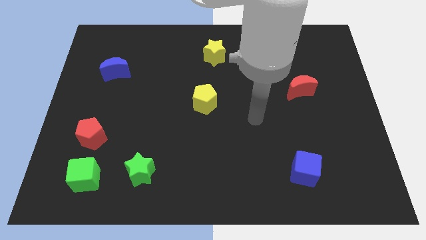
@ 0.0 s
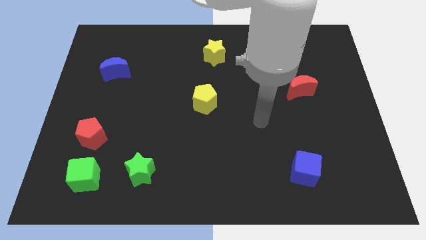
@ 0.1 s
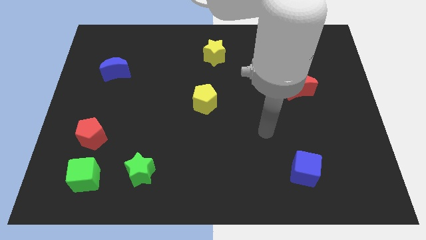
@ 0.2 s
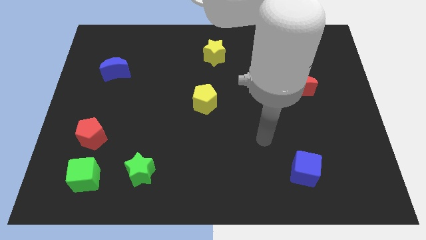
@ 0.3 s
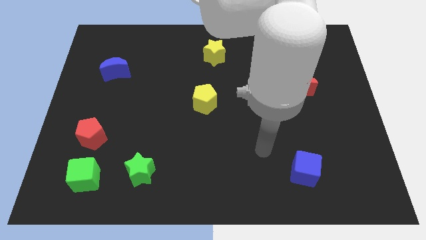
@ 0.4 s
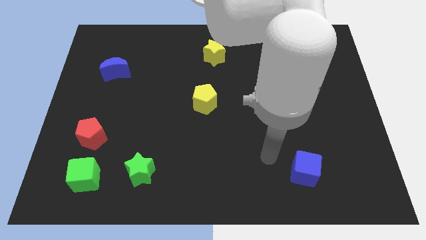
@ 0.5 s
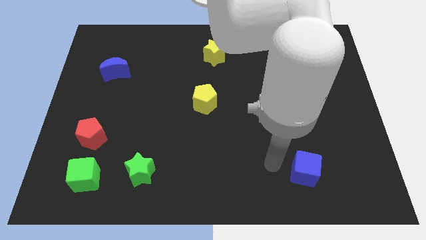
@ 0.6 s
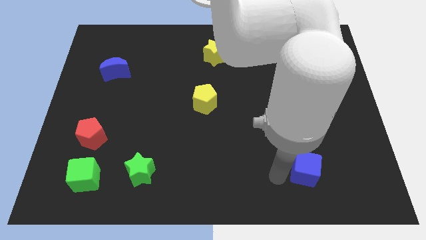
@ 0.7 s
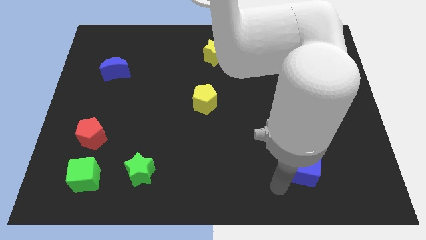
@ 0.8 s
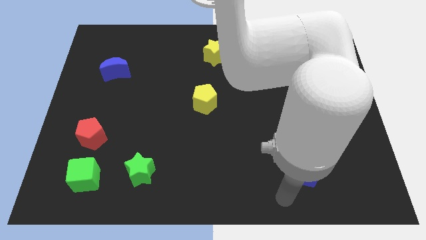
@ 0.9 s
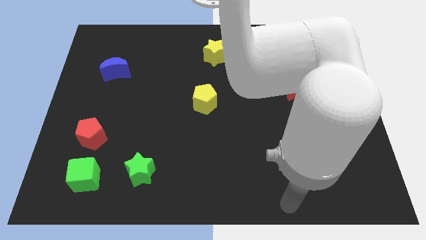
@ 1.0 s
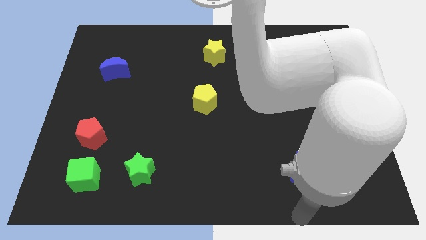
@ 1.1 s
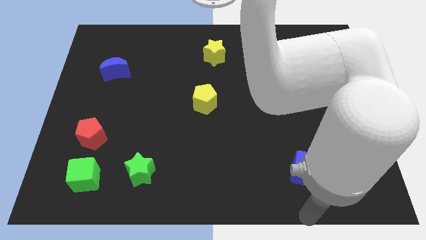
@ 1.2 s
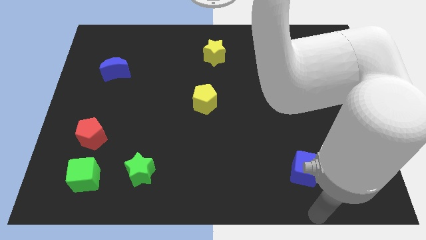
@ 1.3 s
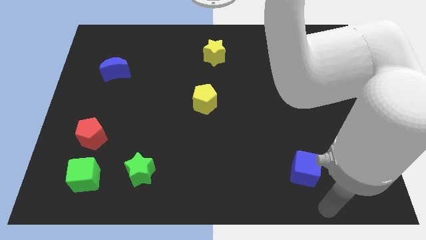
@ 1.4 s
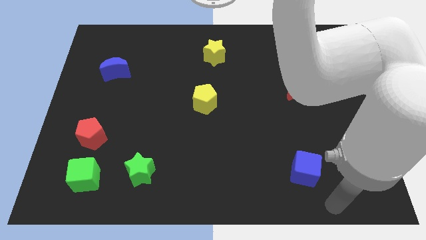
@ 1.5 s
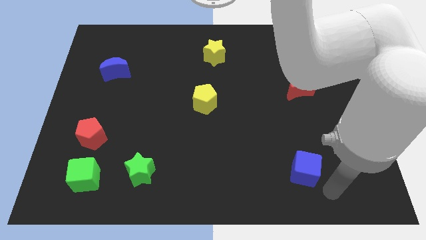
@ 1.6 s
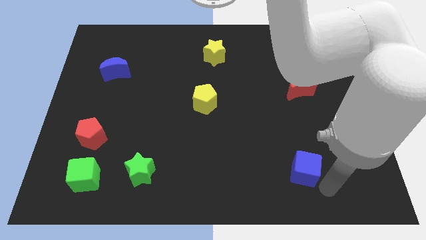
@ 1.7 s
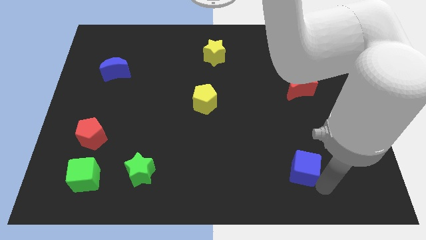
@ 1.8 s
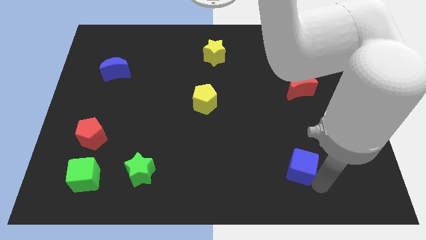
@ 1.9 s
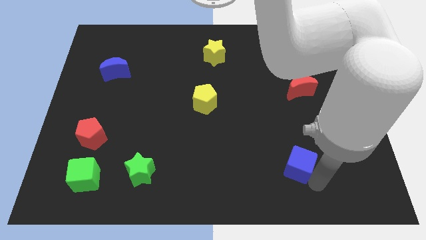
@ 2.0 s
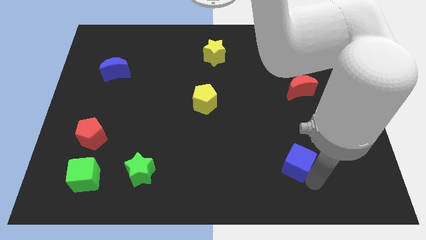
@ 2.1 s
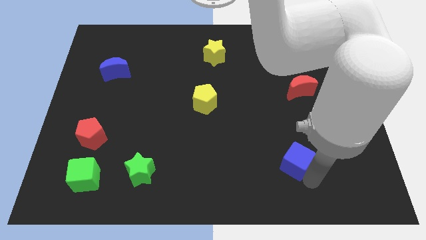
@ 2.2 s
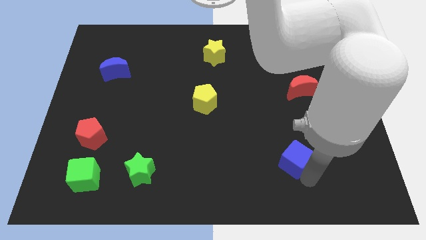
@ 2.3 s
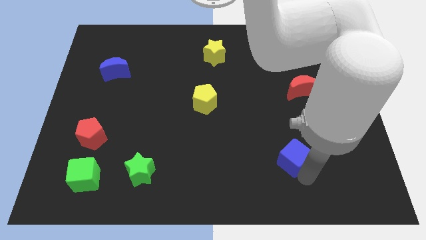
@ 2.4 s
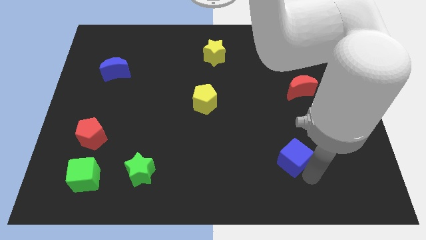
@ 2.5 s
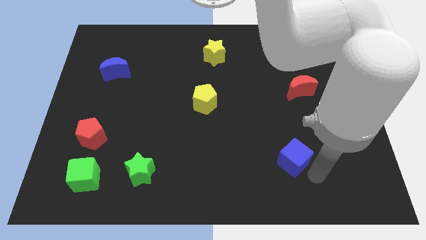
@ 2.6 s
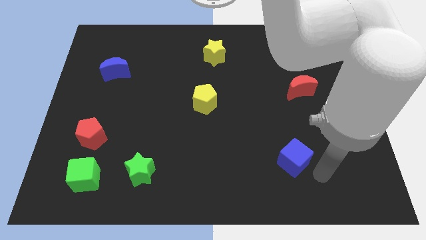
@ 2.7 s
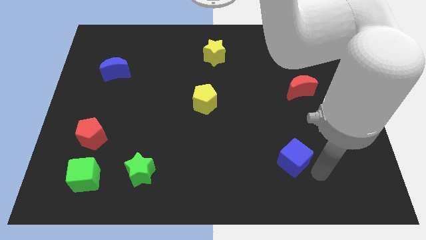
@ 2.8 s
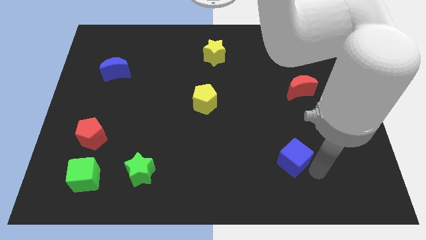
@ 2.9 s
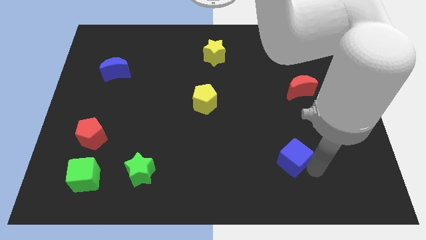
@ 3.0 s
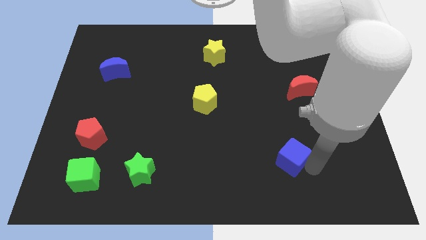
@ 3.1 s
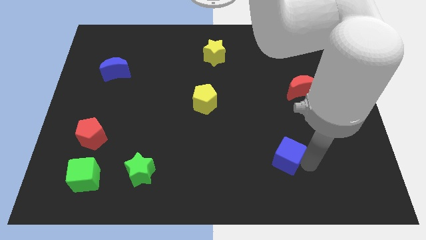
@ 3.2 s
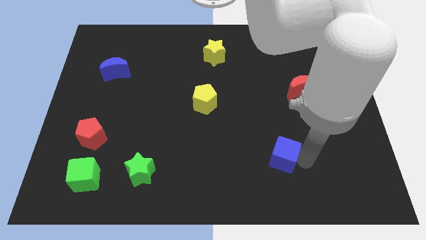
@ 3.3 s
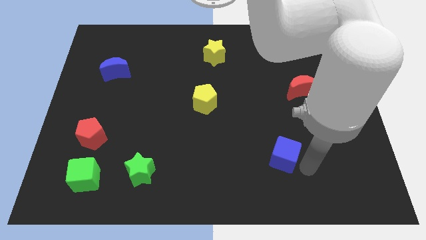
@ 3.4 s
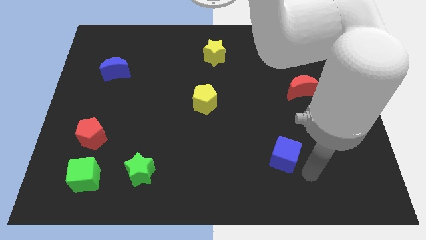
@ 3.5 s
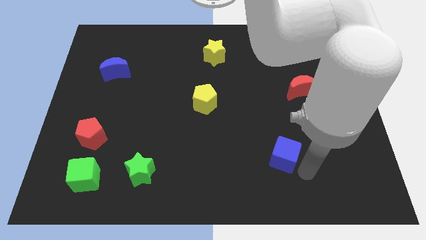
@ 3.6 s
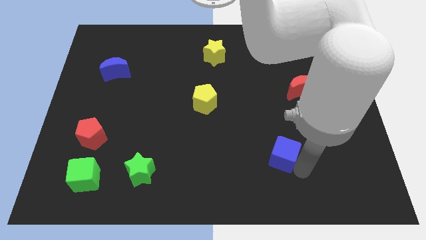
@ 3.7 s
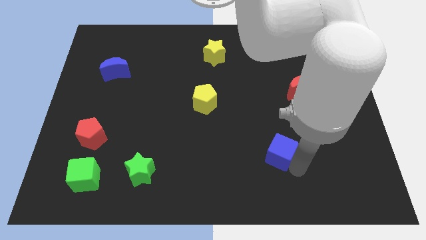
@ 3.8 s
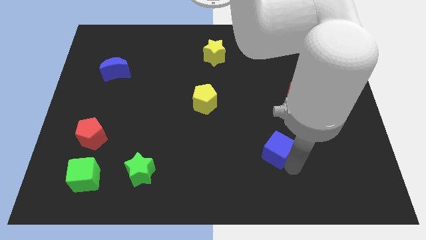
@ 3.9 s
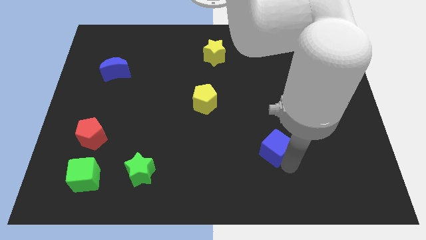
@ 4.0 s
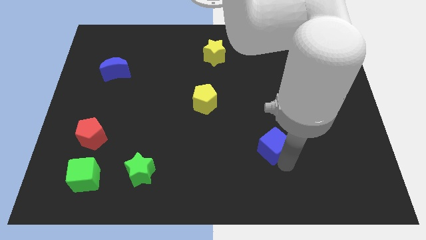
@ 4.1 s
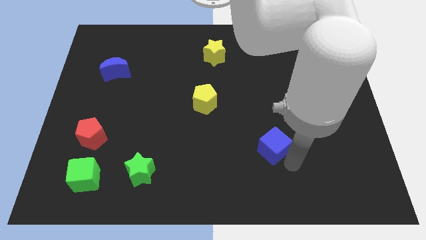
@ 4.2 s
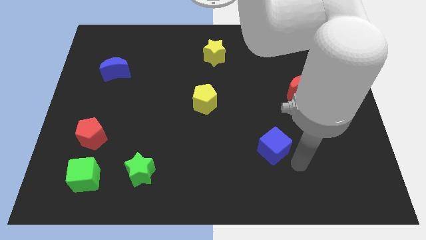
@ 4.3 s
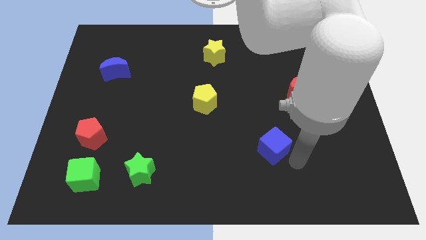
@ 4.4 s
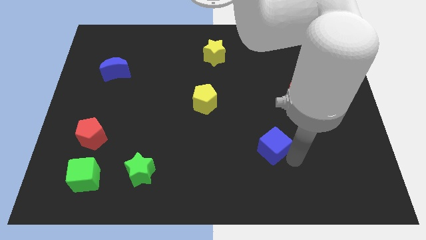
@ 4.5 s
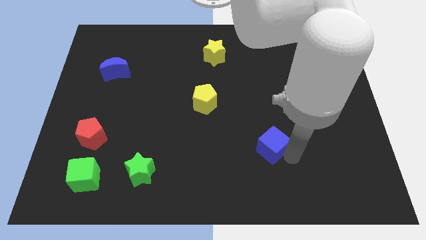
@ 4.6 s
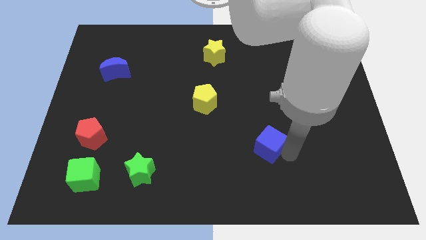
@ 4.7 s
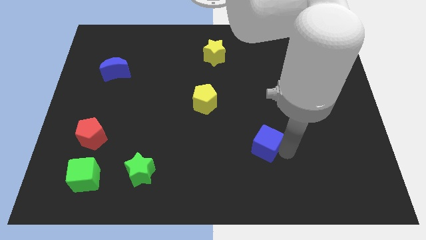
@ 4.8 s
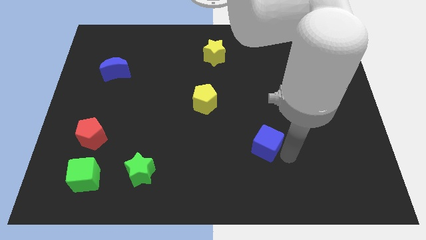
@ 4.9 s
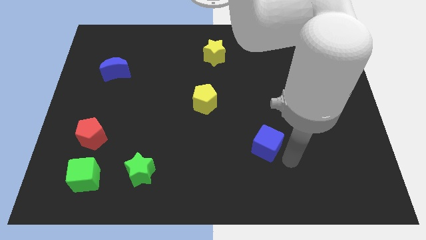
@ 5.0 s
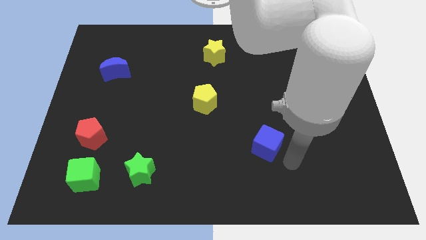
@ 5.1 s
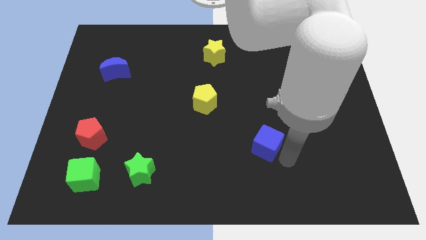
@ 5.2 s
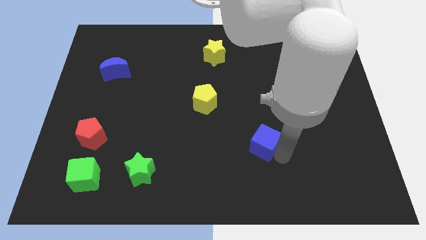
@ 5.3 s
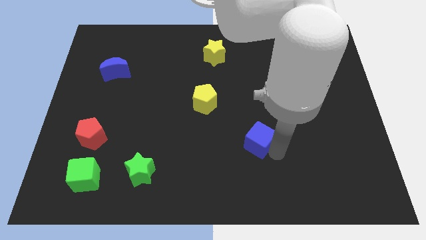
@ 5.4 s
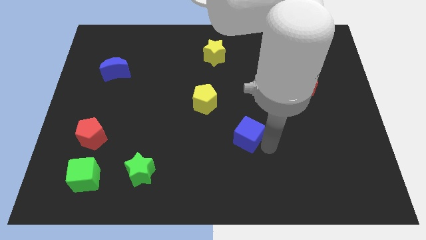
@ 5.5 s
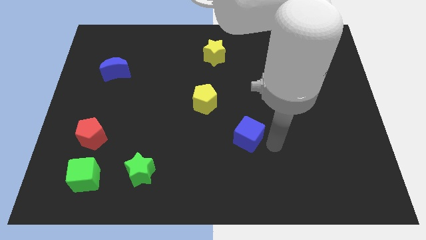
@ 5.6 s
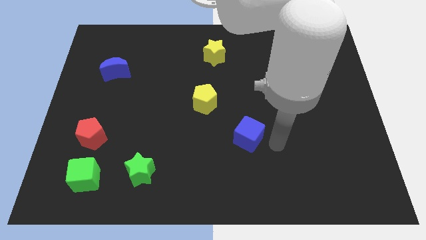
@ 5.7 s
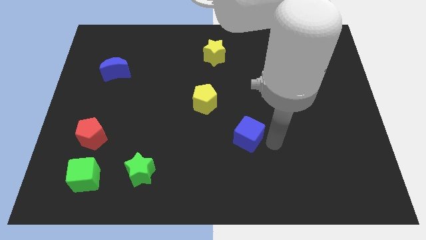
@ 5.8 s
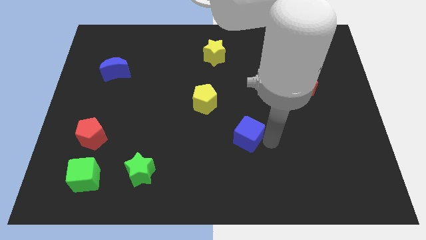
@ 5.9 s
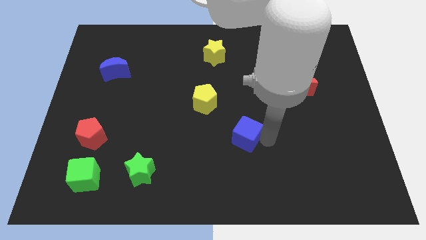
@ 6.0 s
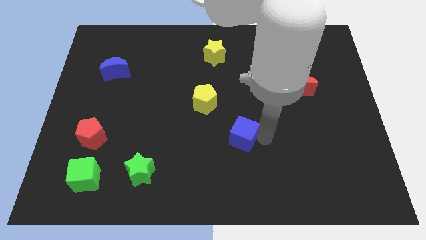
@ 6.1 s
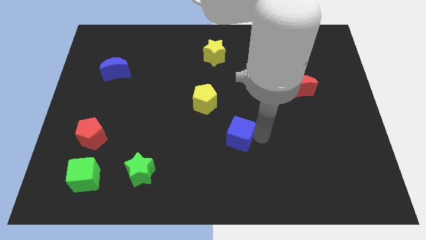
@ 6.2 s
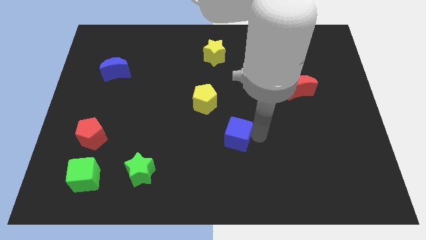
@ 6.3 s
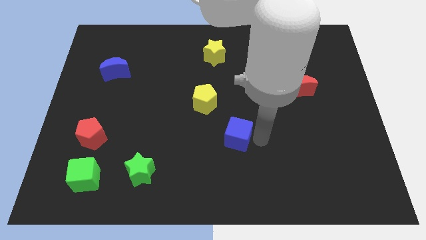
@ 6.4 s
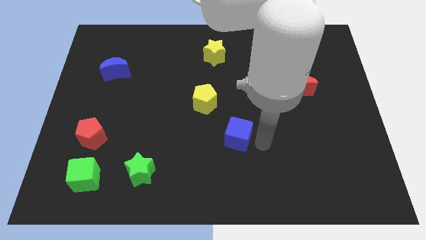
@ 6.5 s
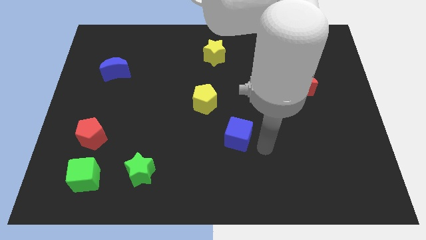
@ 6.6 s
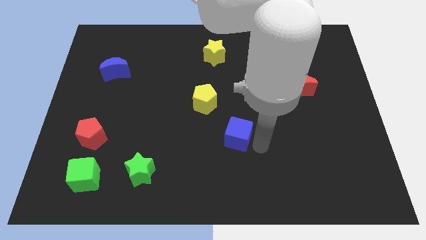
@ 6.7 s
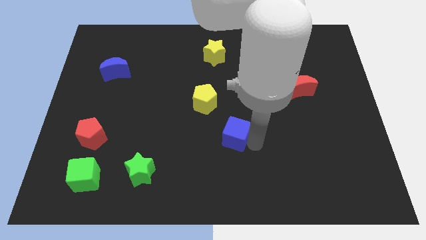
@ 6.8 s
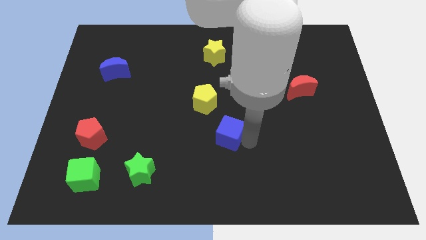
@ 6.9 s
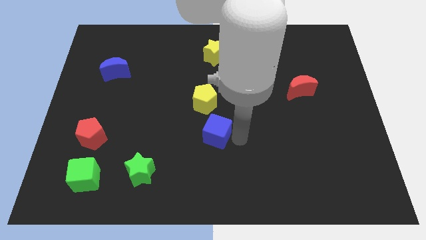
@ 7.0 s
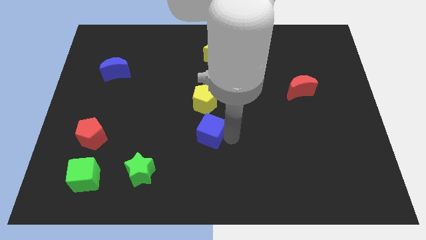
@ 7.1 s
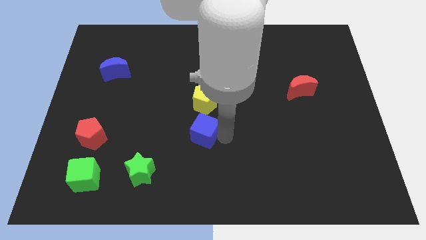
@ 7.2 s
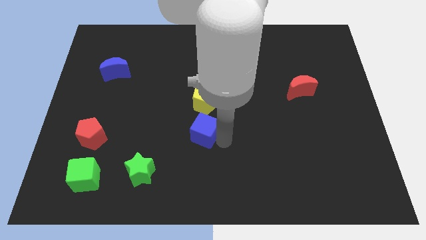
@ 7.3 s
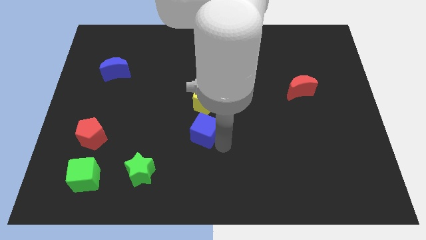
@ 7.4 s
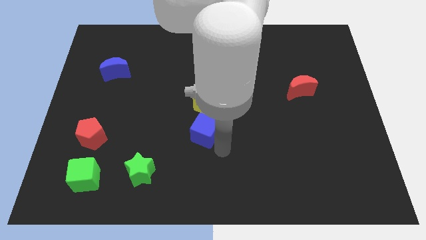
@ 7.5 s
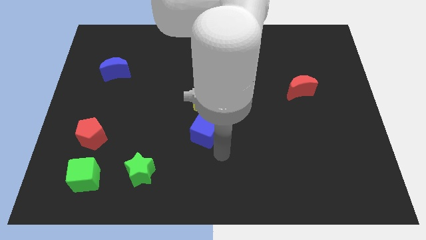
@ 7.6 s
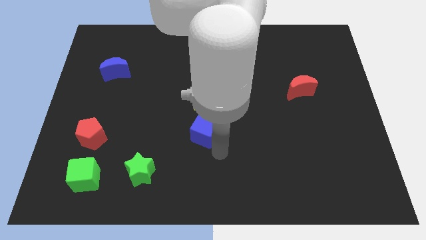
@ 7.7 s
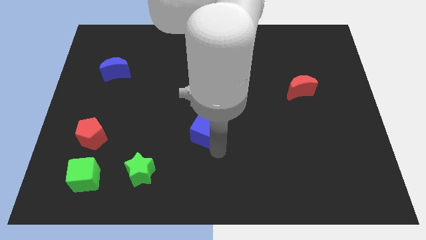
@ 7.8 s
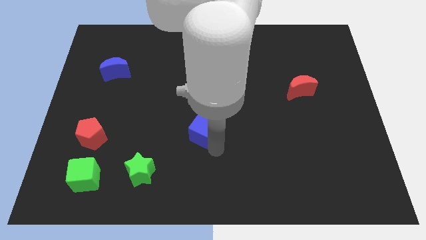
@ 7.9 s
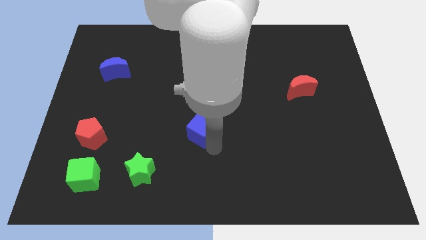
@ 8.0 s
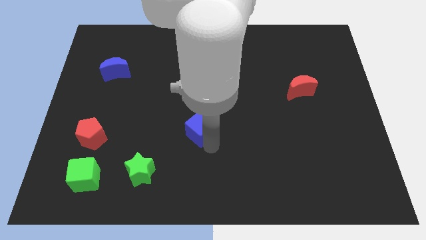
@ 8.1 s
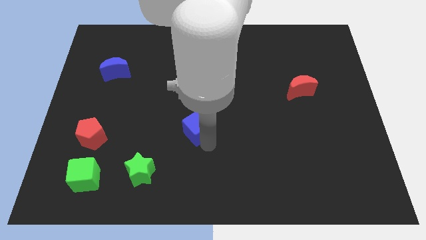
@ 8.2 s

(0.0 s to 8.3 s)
slide the blue cube diagonally down and to the left of the yellow pentagon
